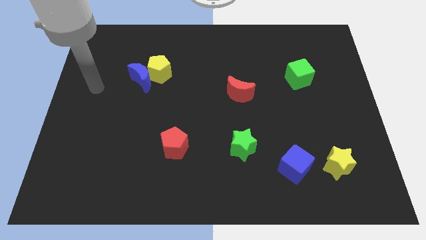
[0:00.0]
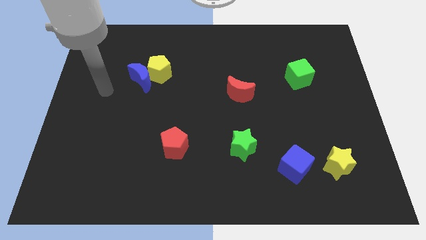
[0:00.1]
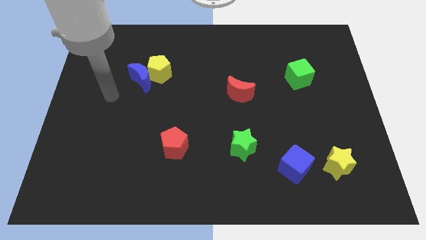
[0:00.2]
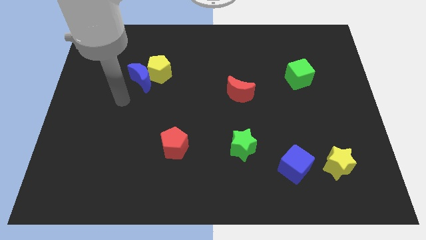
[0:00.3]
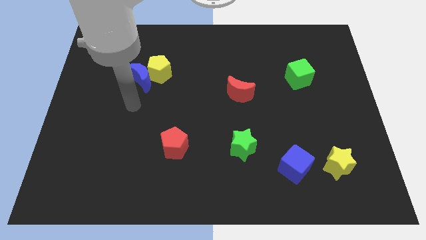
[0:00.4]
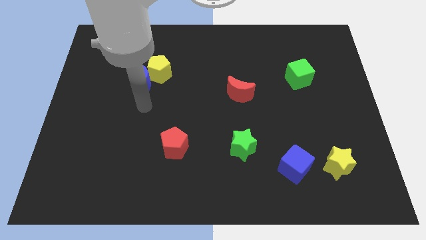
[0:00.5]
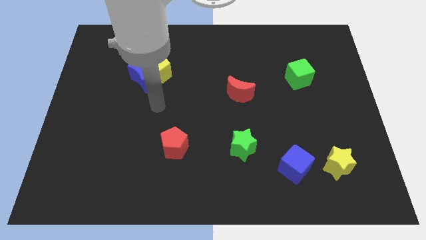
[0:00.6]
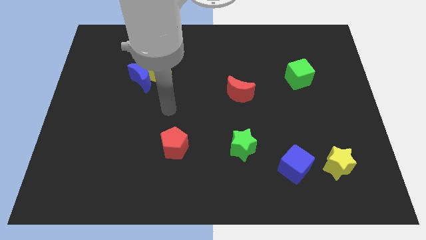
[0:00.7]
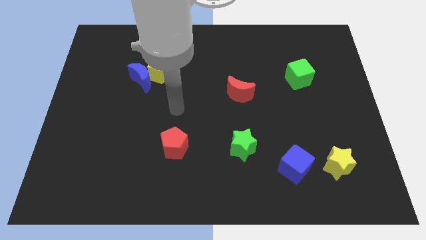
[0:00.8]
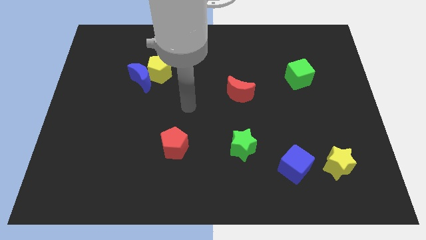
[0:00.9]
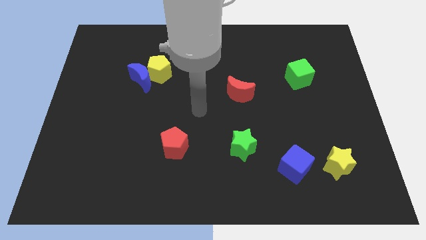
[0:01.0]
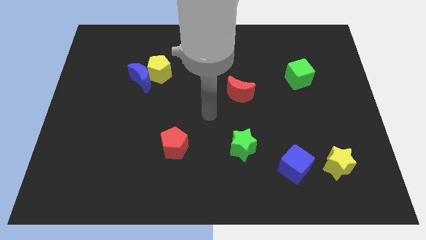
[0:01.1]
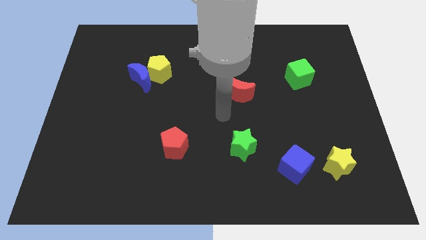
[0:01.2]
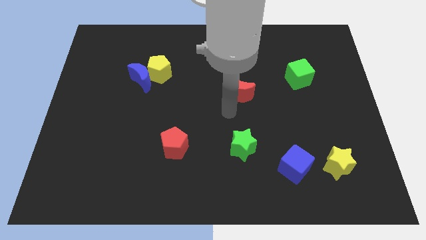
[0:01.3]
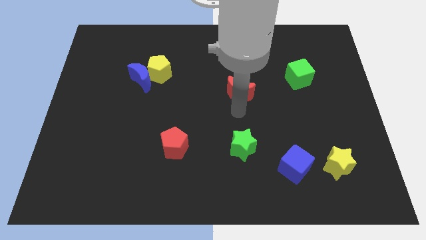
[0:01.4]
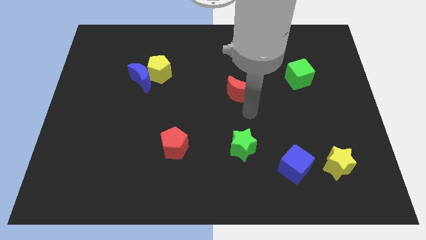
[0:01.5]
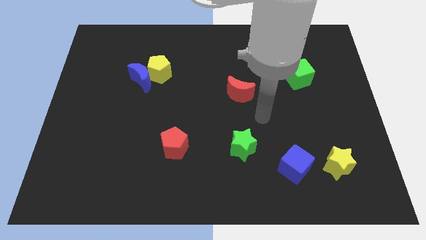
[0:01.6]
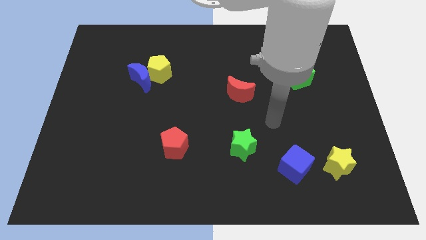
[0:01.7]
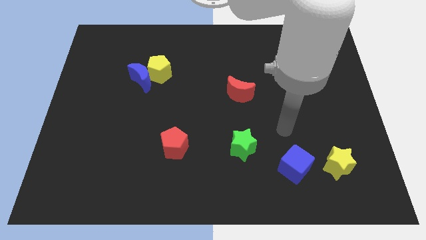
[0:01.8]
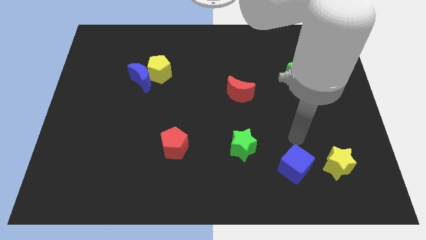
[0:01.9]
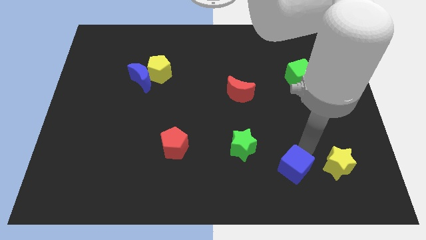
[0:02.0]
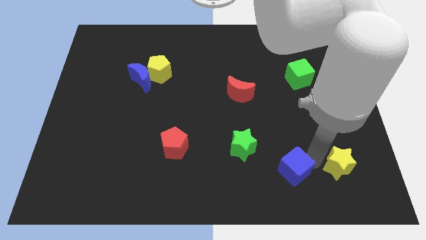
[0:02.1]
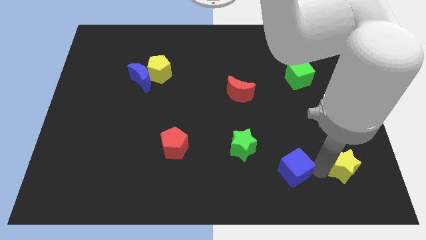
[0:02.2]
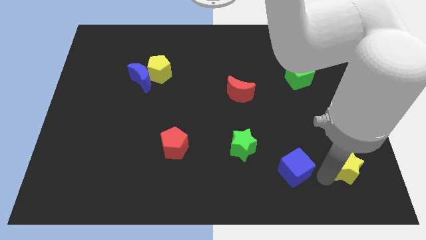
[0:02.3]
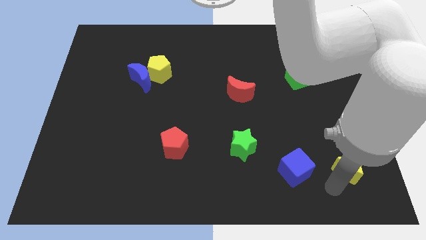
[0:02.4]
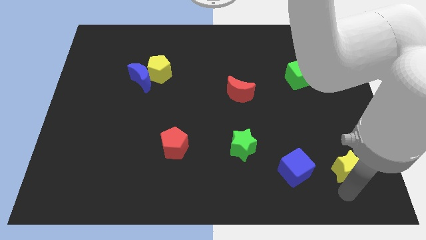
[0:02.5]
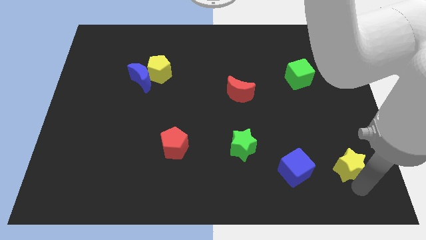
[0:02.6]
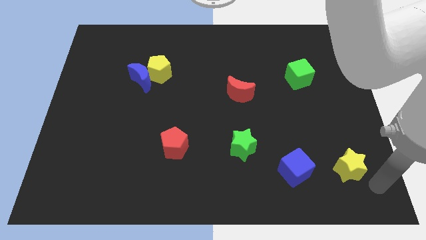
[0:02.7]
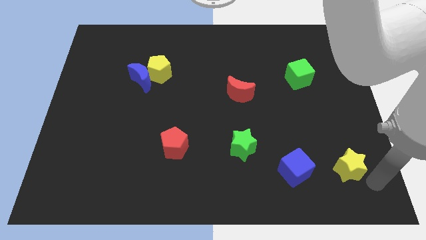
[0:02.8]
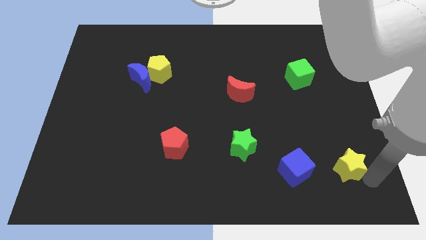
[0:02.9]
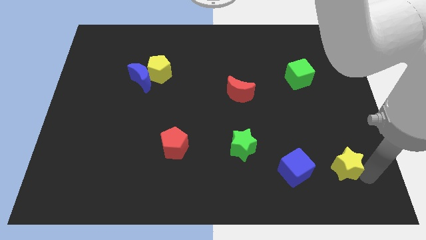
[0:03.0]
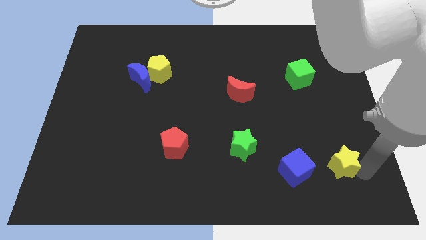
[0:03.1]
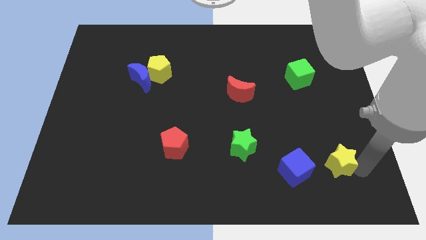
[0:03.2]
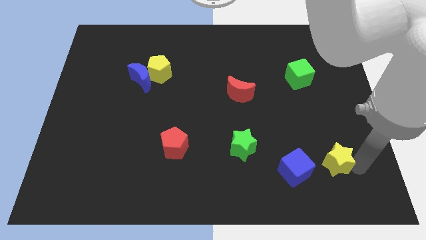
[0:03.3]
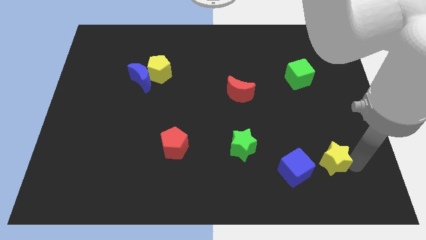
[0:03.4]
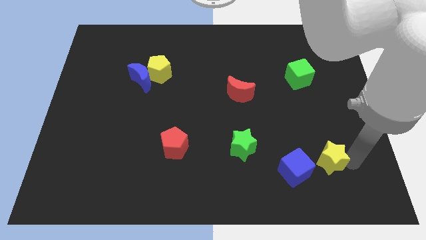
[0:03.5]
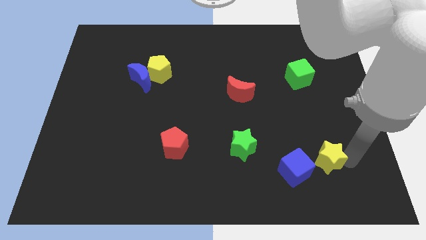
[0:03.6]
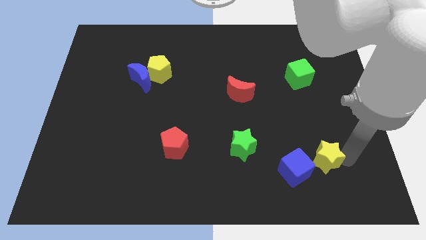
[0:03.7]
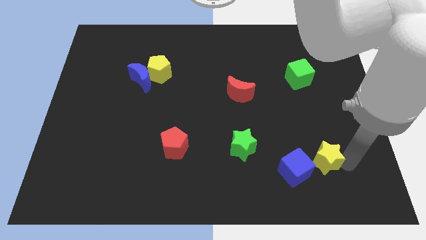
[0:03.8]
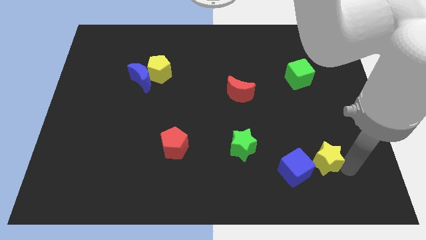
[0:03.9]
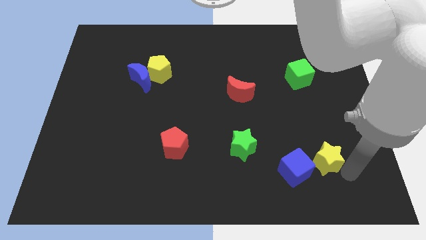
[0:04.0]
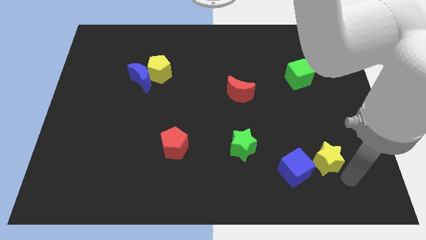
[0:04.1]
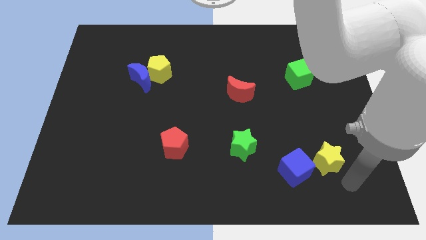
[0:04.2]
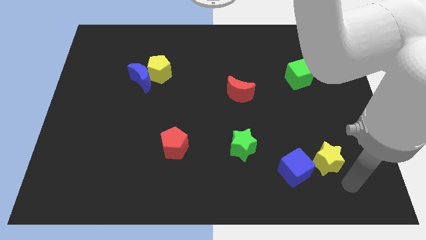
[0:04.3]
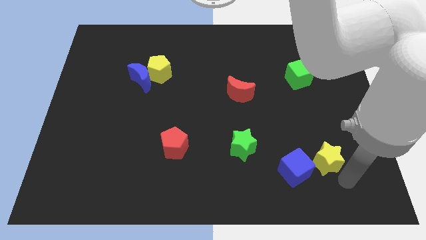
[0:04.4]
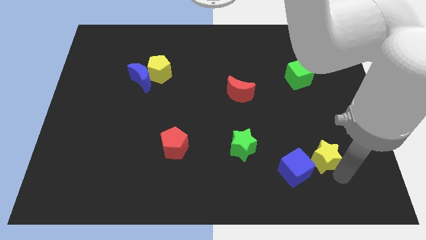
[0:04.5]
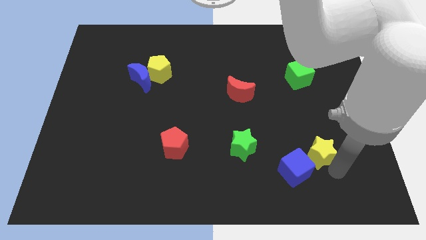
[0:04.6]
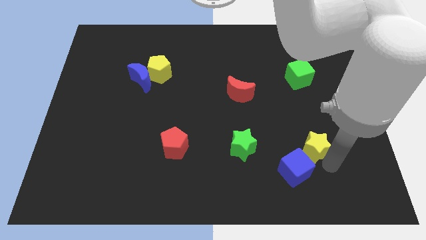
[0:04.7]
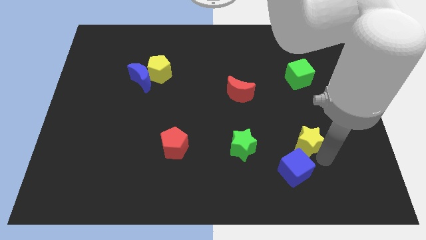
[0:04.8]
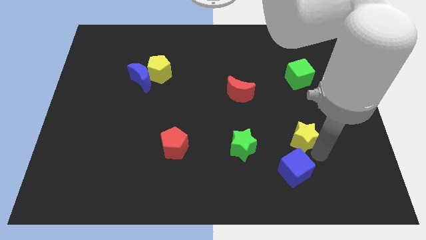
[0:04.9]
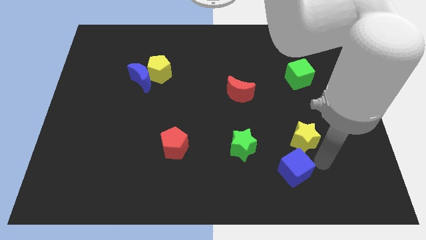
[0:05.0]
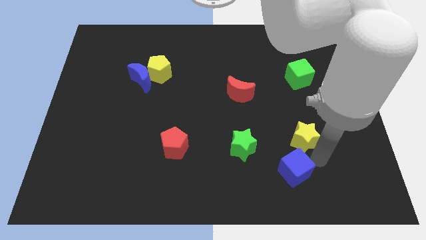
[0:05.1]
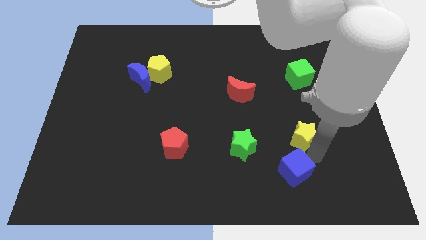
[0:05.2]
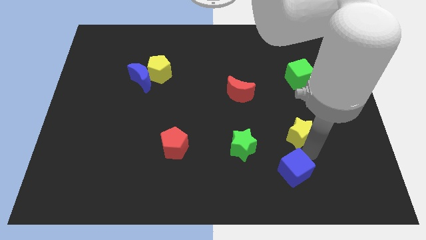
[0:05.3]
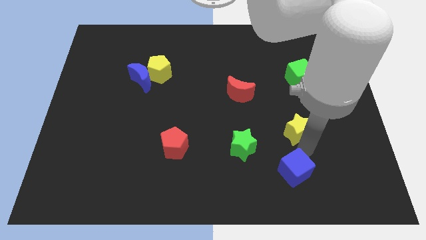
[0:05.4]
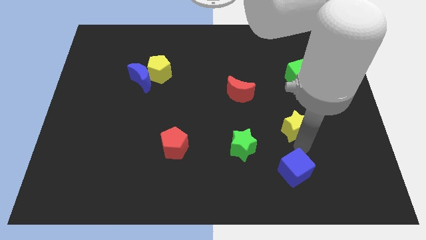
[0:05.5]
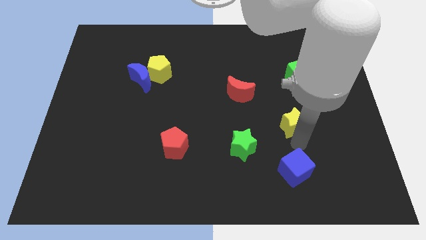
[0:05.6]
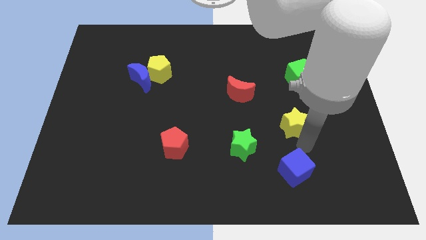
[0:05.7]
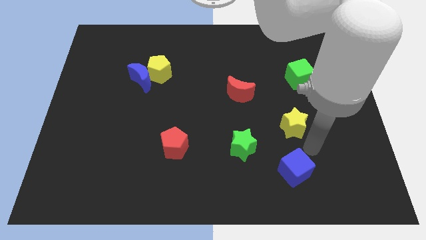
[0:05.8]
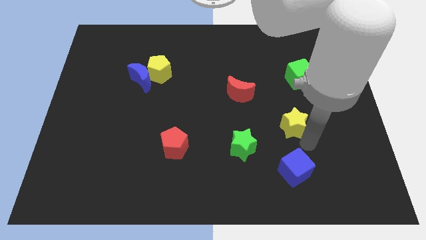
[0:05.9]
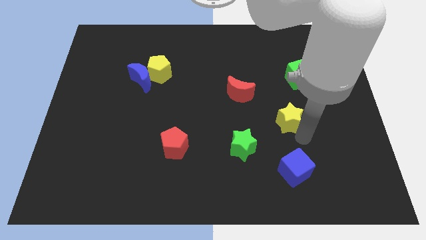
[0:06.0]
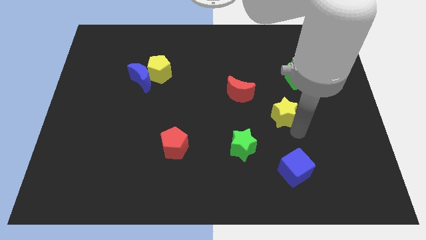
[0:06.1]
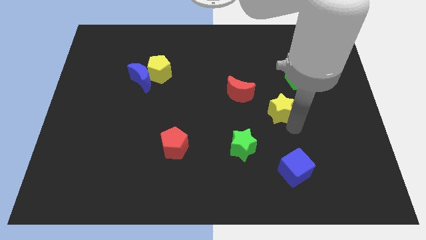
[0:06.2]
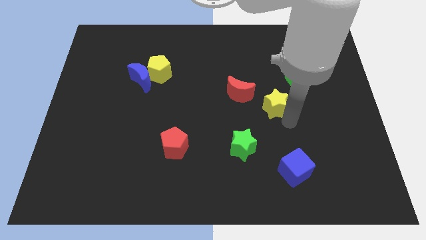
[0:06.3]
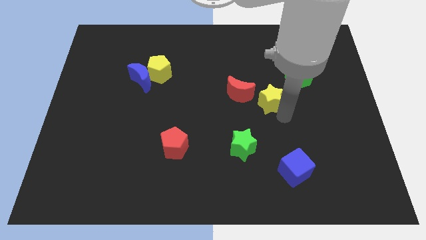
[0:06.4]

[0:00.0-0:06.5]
push the yellow star upwards and to the left diagonally

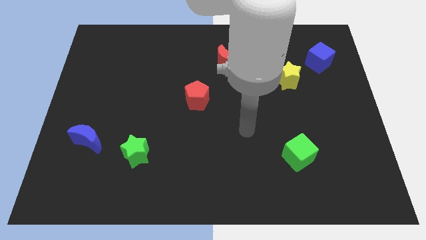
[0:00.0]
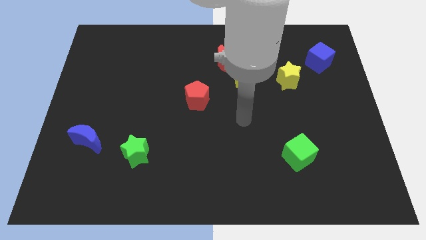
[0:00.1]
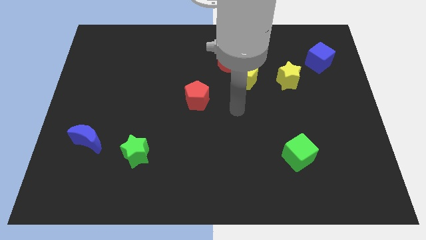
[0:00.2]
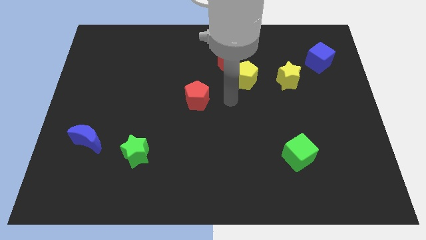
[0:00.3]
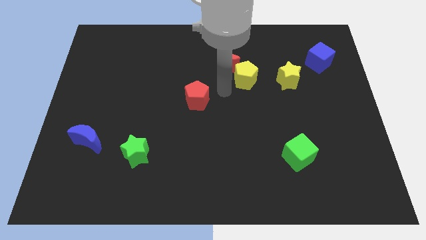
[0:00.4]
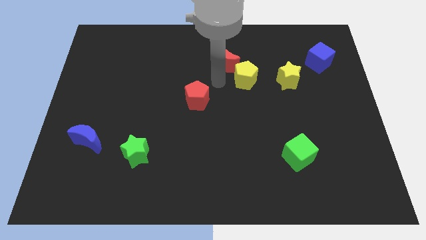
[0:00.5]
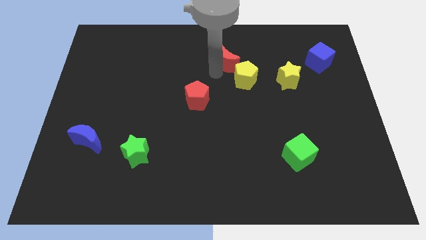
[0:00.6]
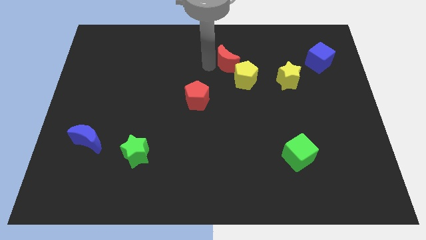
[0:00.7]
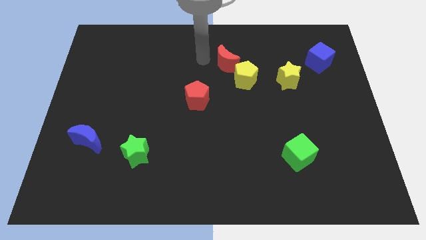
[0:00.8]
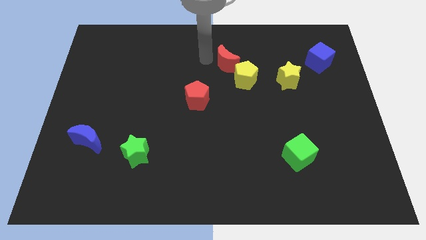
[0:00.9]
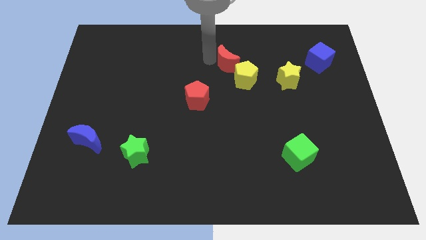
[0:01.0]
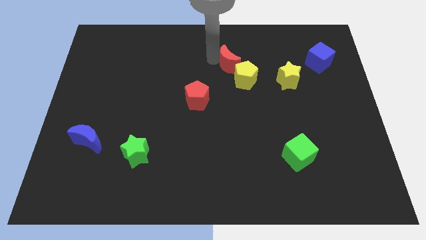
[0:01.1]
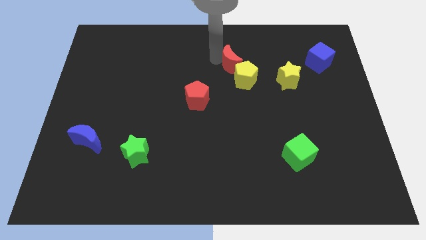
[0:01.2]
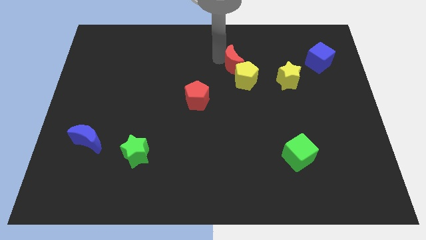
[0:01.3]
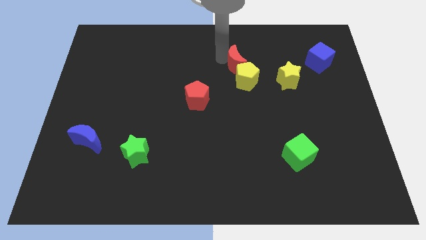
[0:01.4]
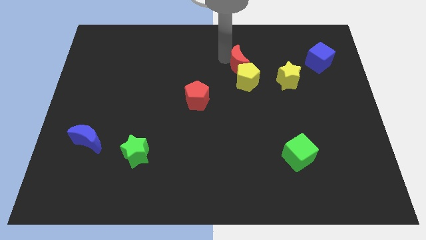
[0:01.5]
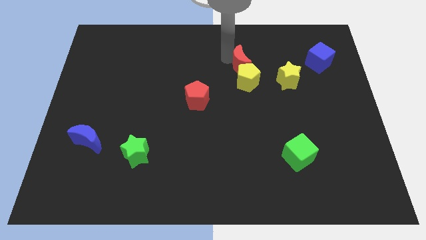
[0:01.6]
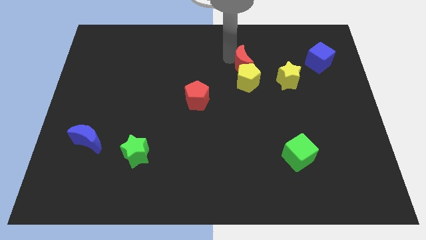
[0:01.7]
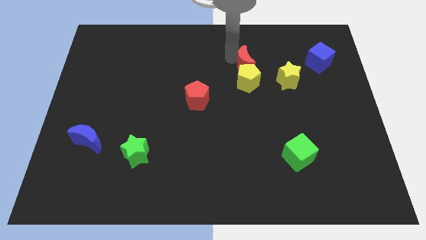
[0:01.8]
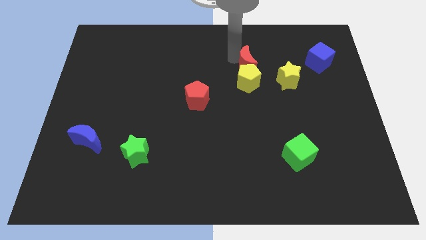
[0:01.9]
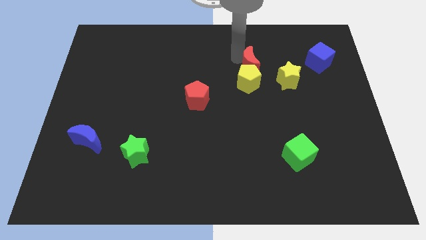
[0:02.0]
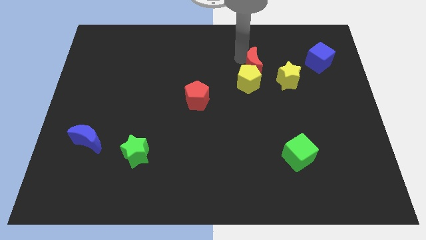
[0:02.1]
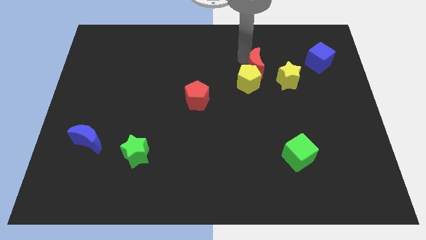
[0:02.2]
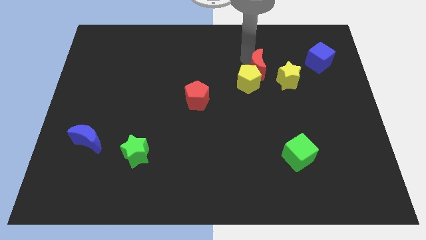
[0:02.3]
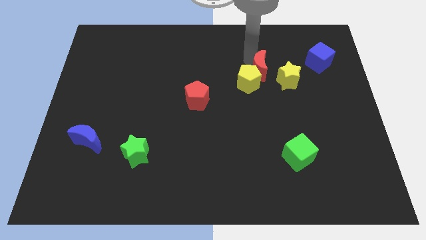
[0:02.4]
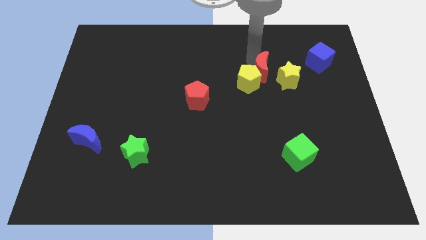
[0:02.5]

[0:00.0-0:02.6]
slide the red moon diagonally down and right a little
